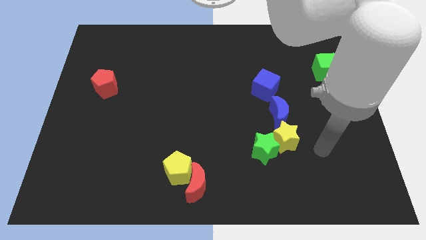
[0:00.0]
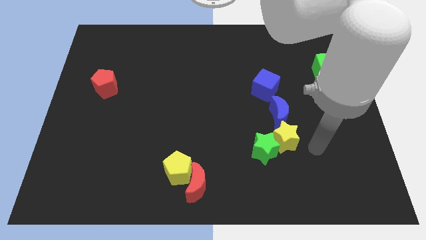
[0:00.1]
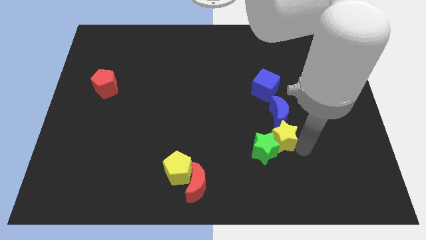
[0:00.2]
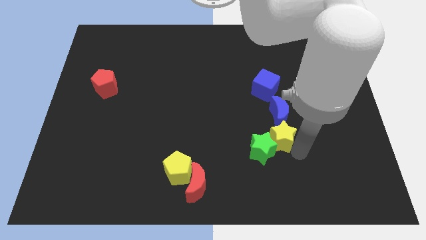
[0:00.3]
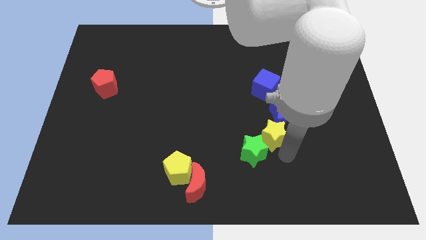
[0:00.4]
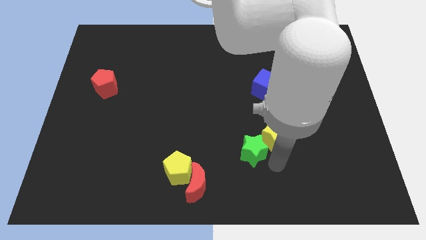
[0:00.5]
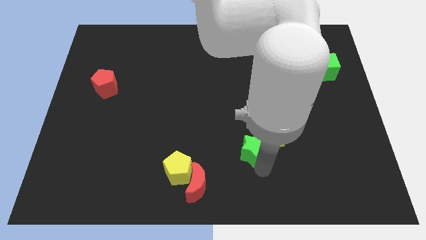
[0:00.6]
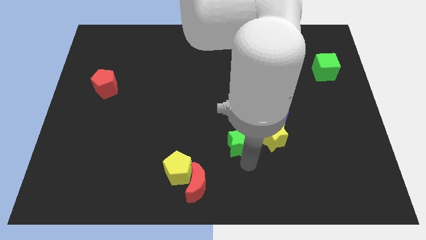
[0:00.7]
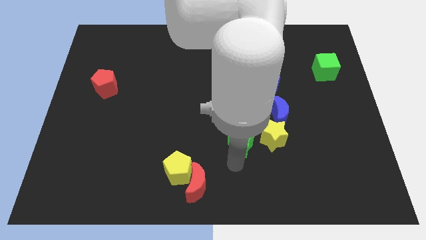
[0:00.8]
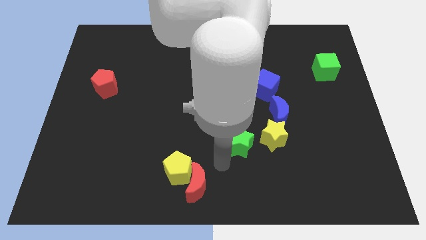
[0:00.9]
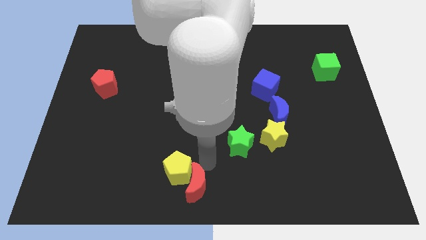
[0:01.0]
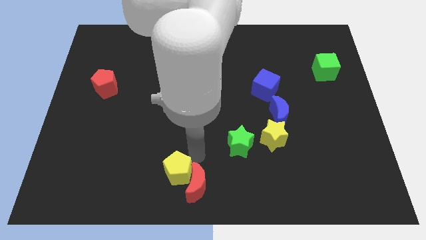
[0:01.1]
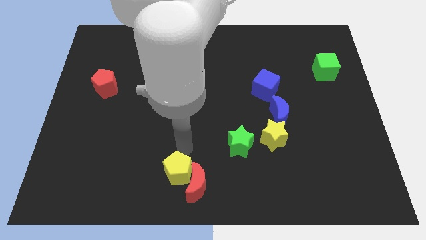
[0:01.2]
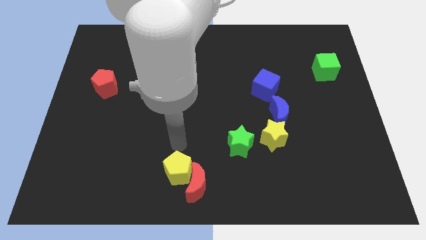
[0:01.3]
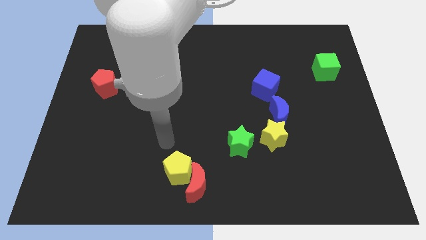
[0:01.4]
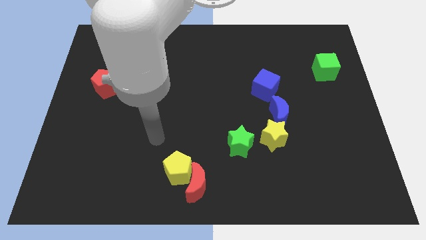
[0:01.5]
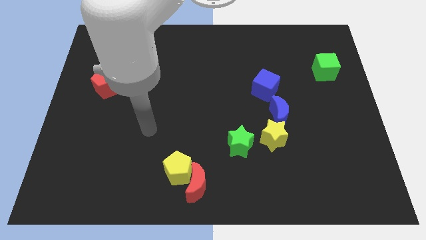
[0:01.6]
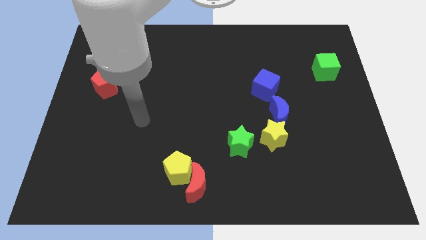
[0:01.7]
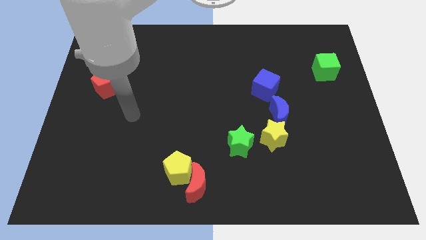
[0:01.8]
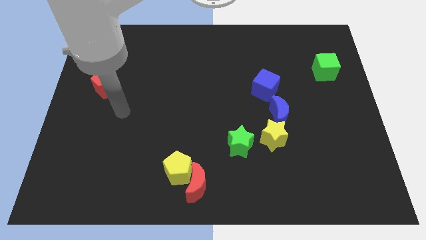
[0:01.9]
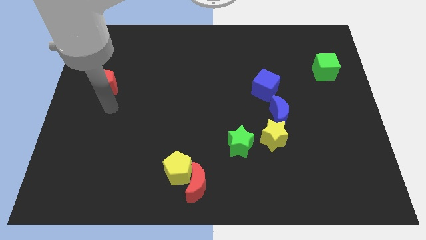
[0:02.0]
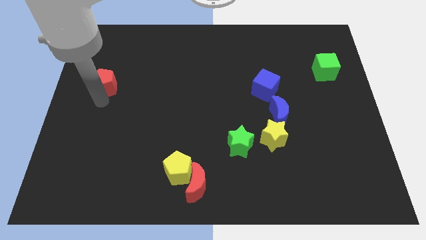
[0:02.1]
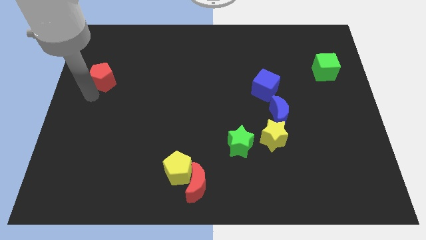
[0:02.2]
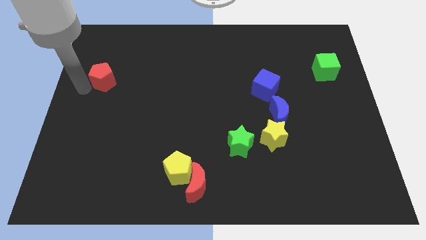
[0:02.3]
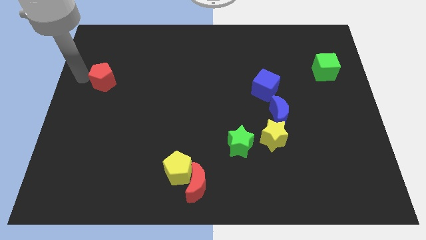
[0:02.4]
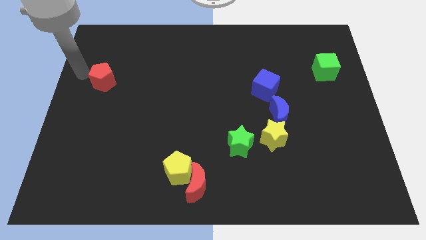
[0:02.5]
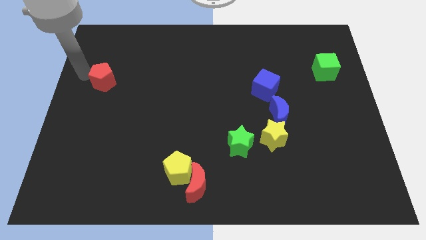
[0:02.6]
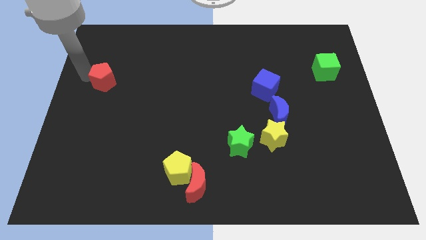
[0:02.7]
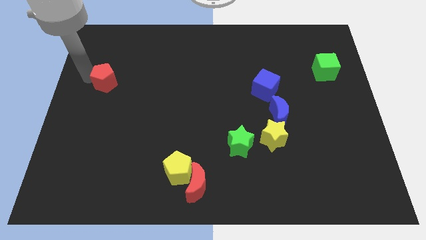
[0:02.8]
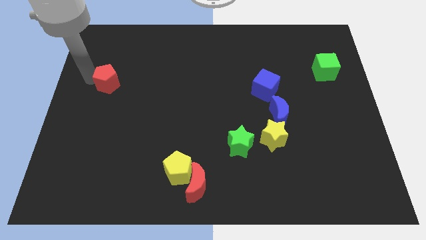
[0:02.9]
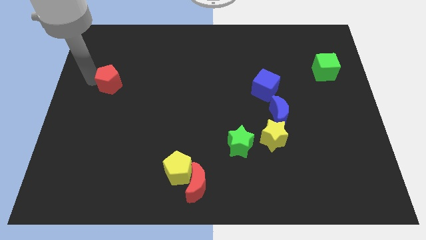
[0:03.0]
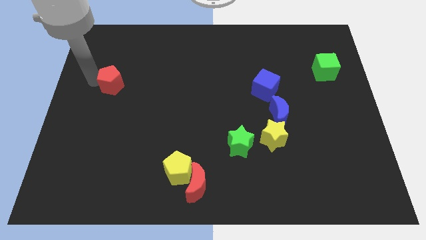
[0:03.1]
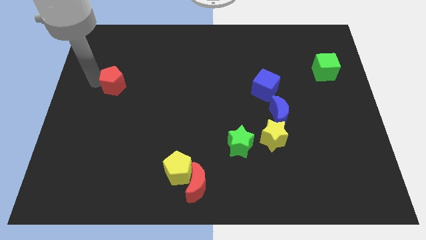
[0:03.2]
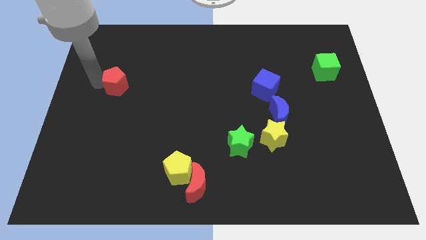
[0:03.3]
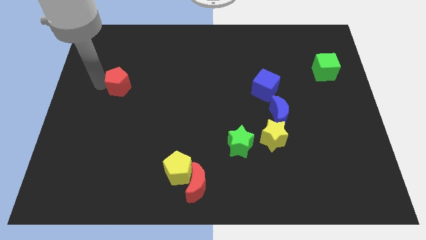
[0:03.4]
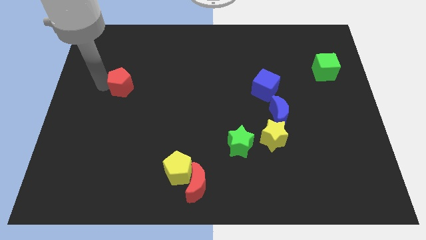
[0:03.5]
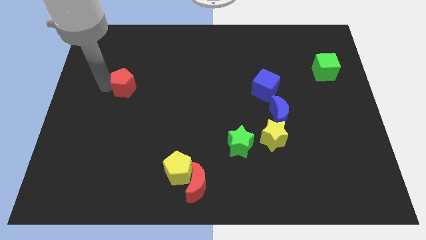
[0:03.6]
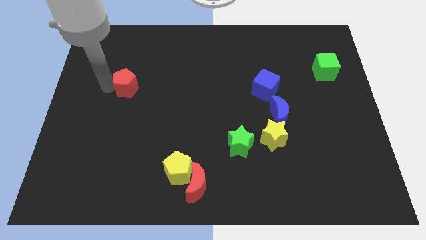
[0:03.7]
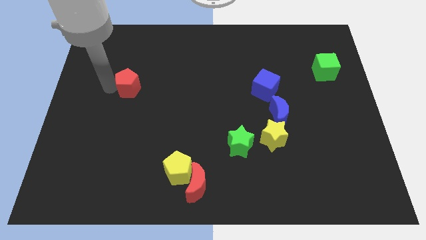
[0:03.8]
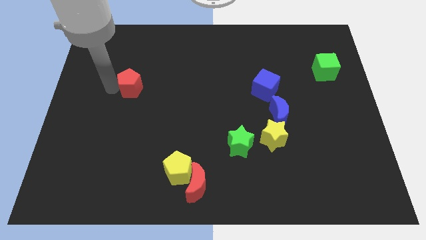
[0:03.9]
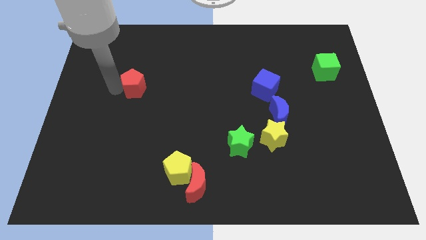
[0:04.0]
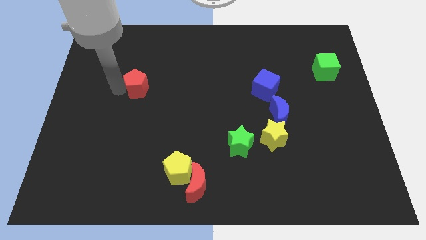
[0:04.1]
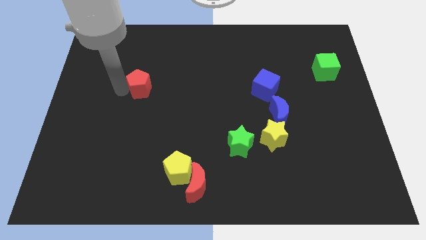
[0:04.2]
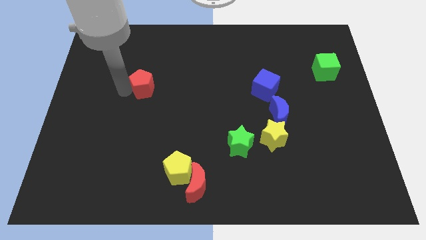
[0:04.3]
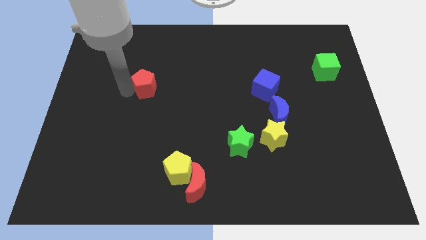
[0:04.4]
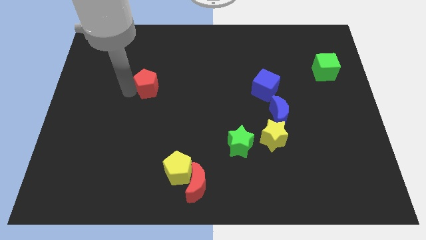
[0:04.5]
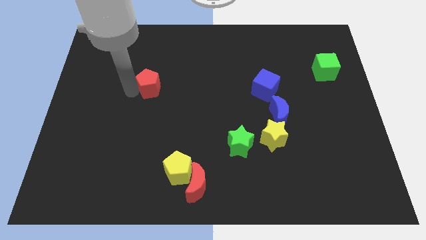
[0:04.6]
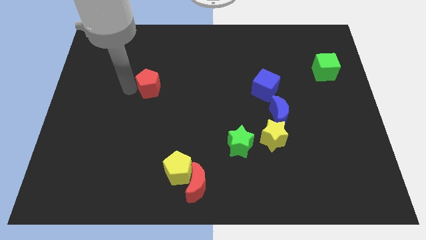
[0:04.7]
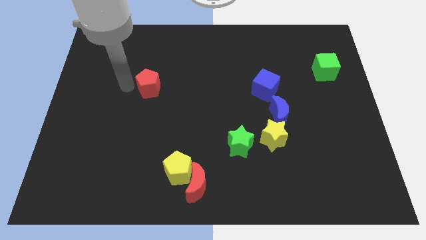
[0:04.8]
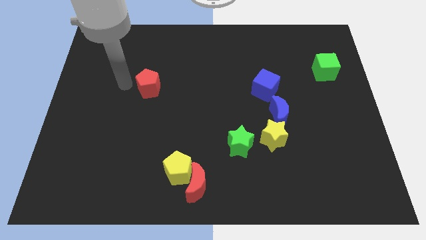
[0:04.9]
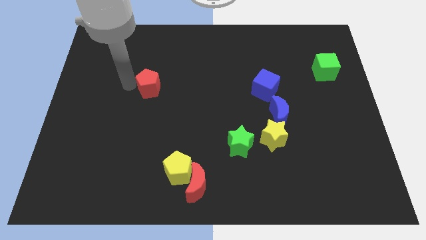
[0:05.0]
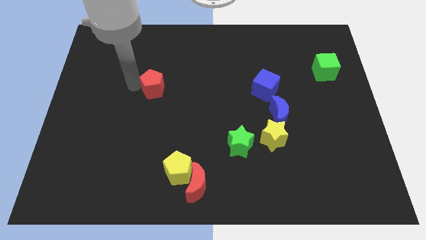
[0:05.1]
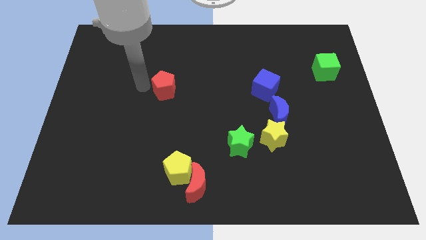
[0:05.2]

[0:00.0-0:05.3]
move the red pentagon to the center

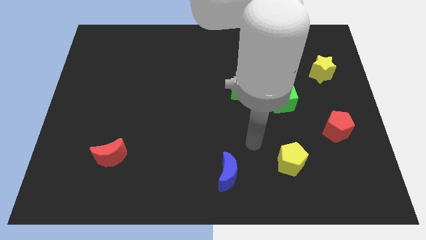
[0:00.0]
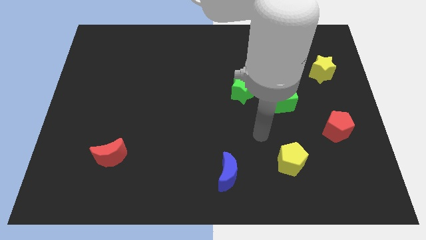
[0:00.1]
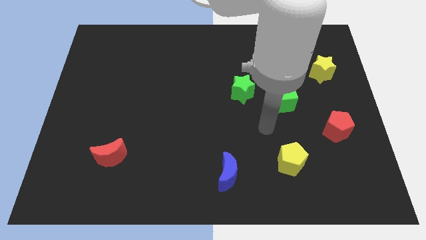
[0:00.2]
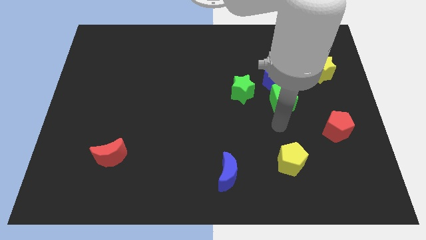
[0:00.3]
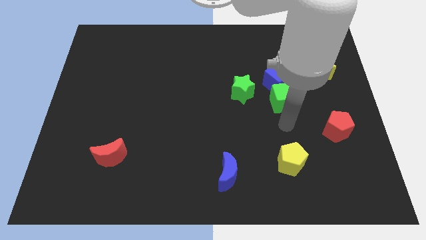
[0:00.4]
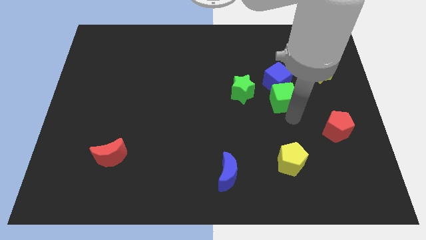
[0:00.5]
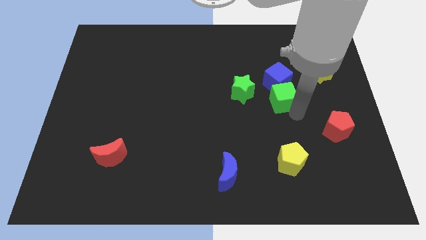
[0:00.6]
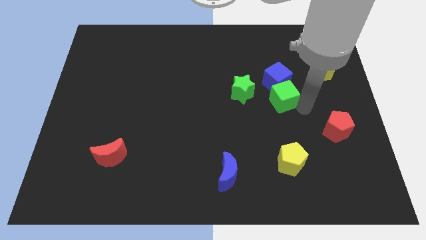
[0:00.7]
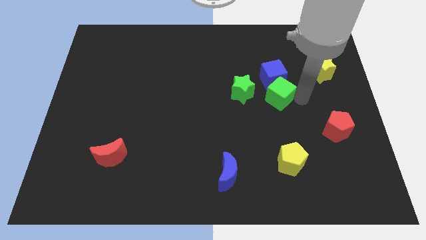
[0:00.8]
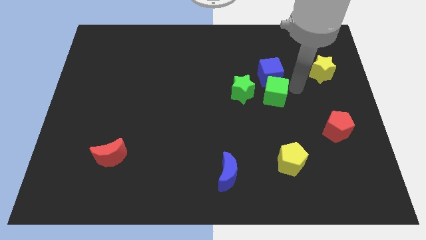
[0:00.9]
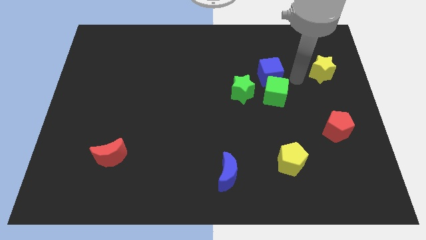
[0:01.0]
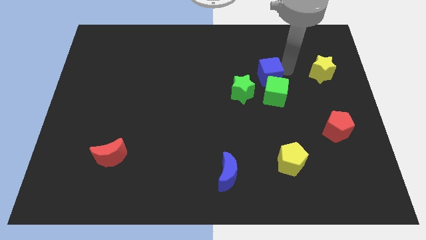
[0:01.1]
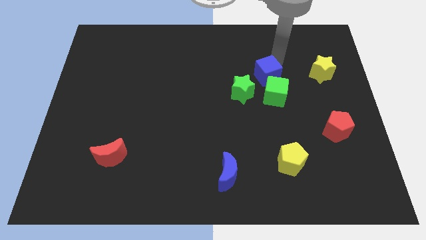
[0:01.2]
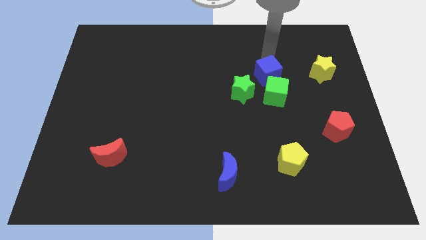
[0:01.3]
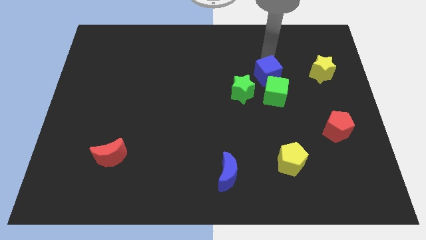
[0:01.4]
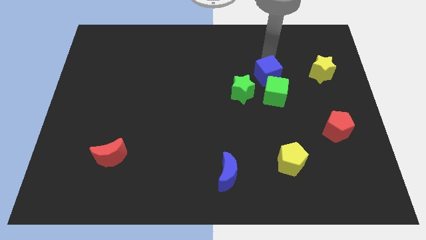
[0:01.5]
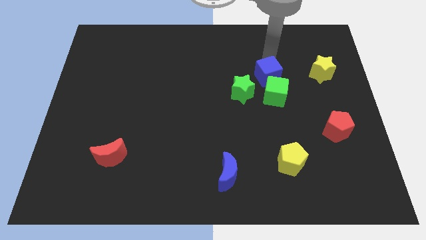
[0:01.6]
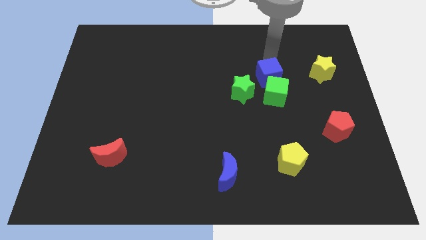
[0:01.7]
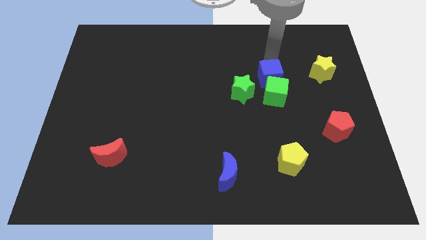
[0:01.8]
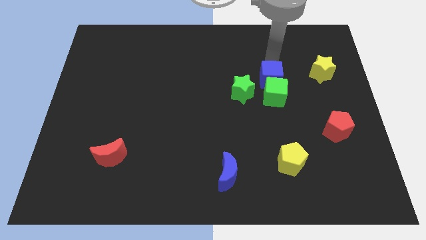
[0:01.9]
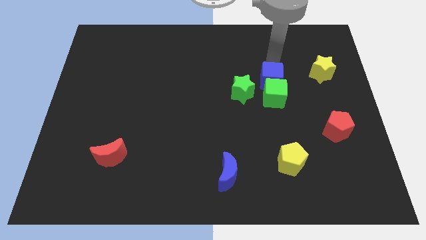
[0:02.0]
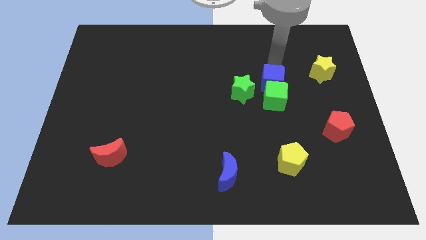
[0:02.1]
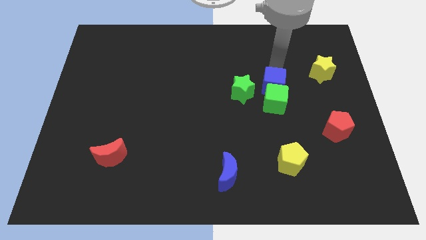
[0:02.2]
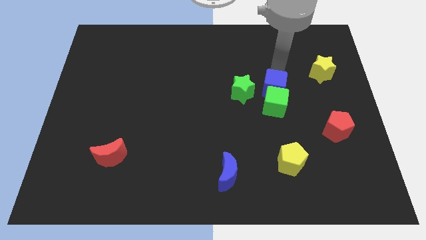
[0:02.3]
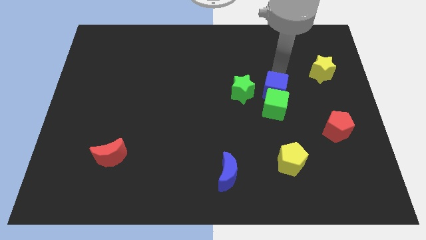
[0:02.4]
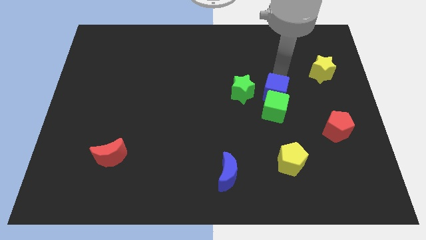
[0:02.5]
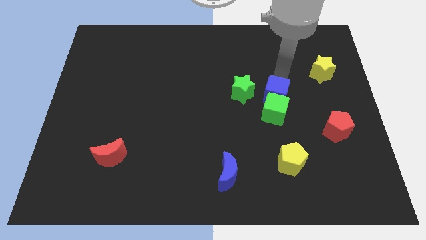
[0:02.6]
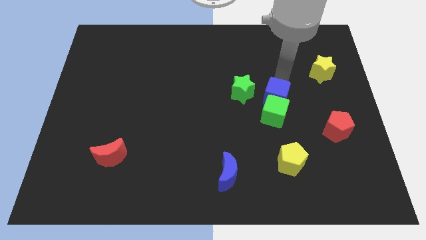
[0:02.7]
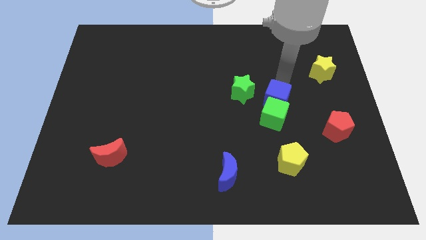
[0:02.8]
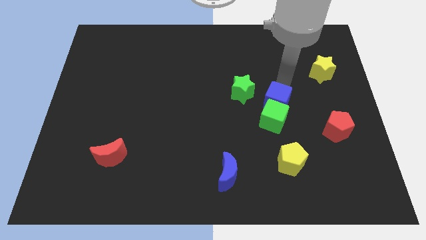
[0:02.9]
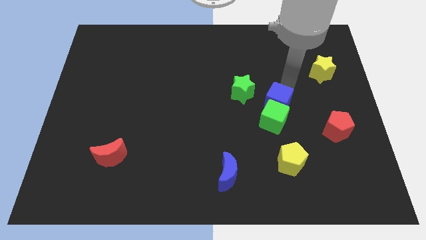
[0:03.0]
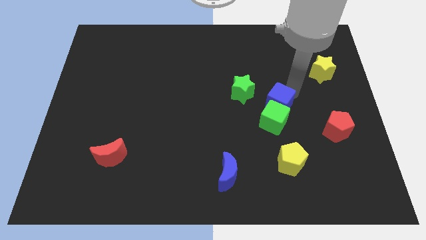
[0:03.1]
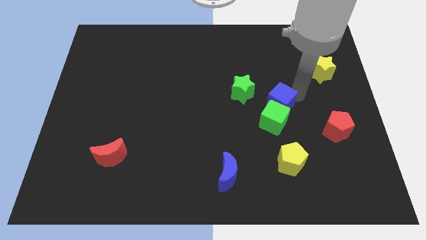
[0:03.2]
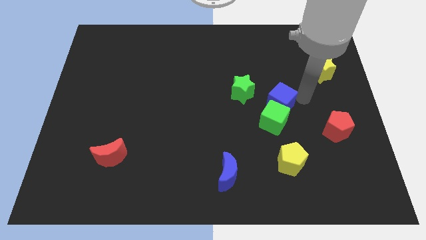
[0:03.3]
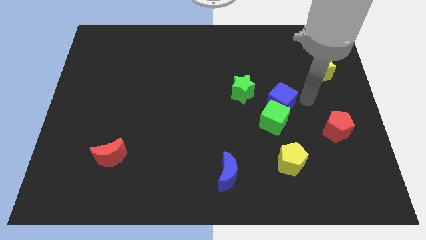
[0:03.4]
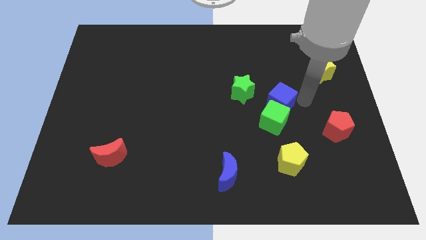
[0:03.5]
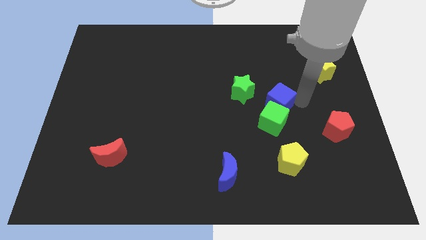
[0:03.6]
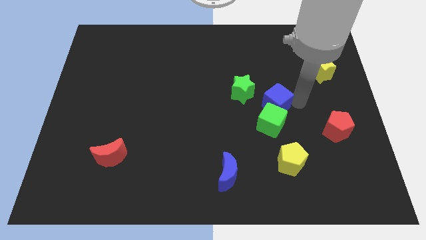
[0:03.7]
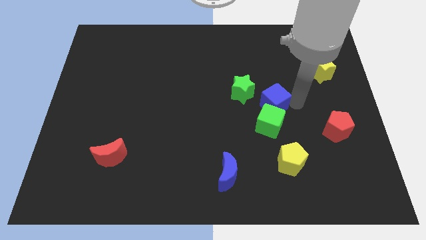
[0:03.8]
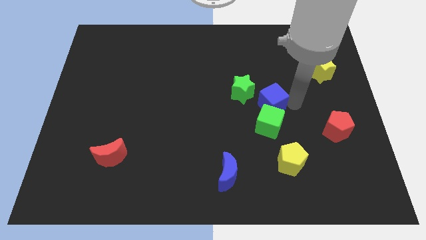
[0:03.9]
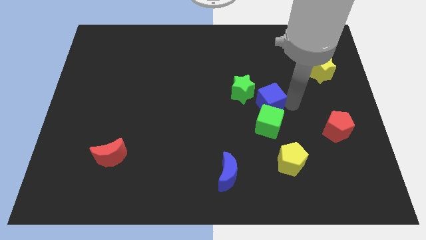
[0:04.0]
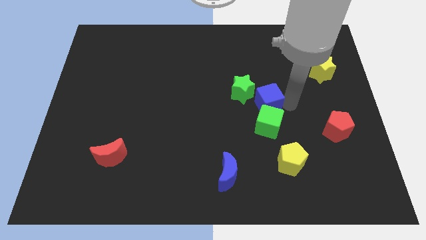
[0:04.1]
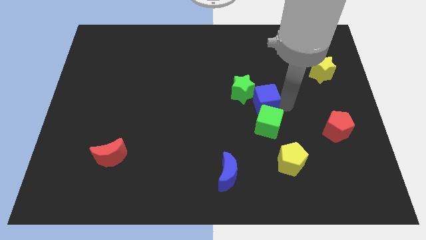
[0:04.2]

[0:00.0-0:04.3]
push the blue cube to the middle of the board
